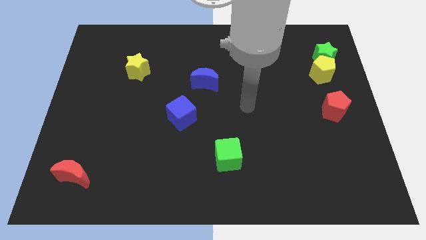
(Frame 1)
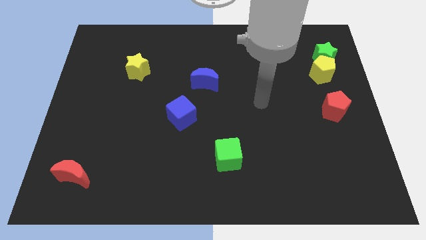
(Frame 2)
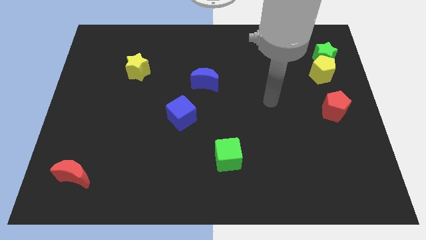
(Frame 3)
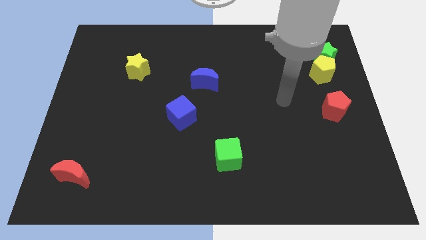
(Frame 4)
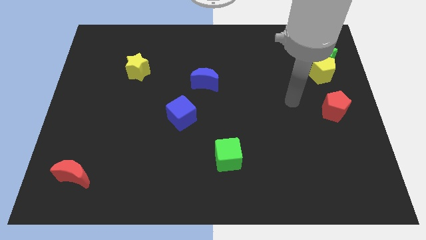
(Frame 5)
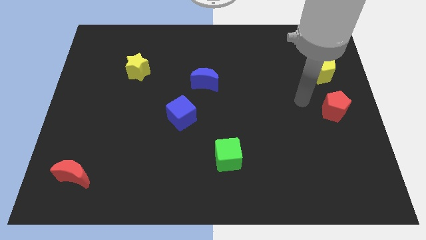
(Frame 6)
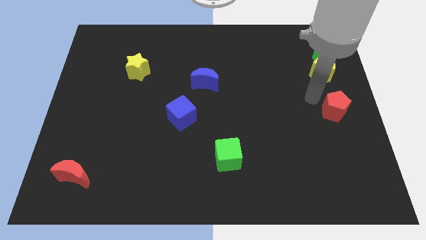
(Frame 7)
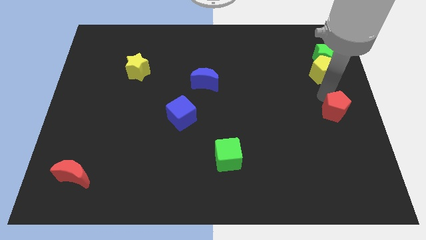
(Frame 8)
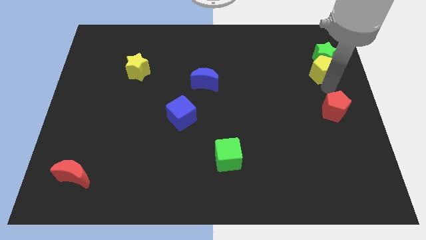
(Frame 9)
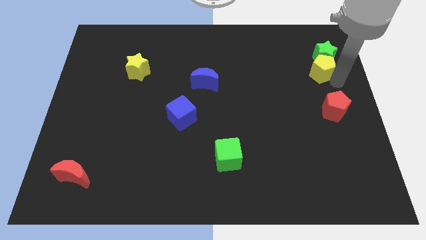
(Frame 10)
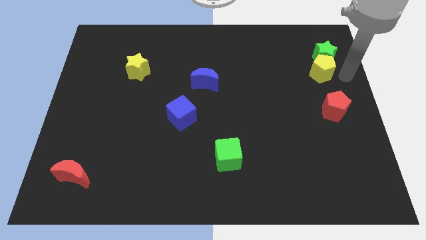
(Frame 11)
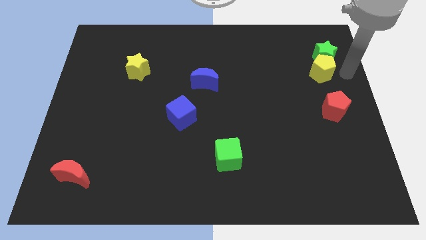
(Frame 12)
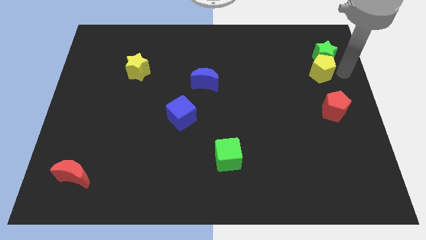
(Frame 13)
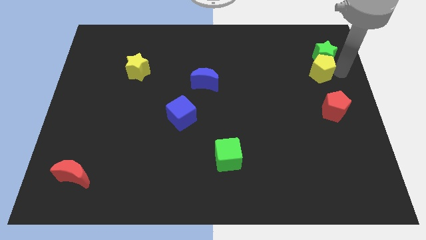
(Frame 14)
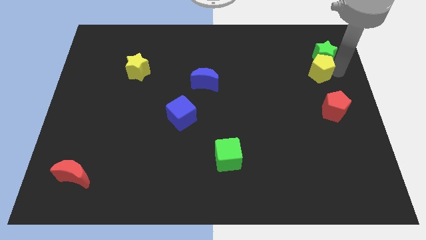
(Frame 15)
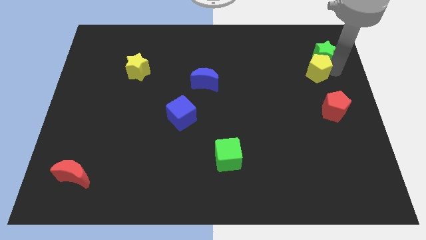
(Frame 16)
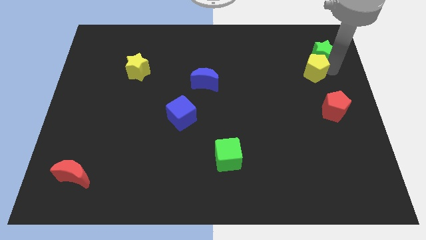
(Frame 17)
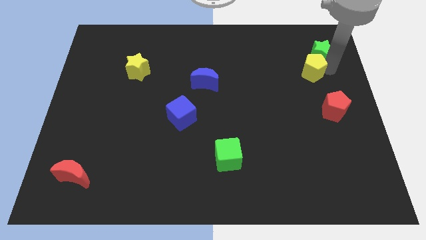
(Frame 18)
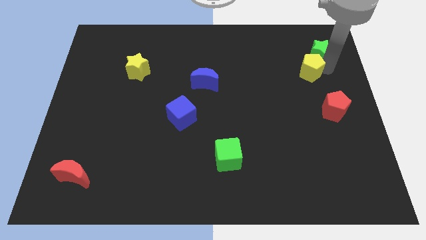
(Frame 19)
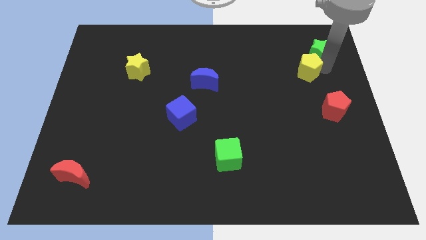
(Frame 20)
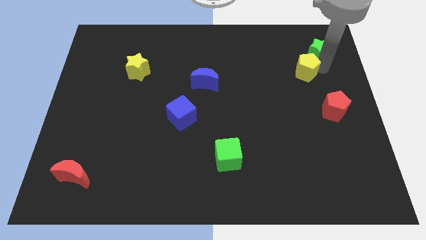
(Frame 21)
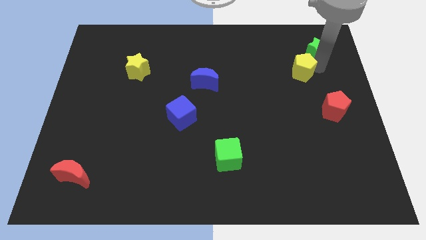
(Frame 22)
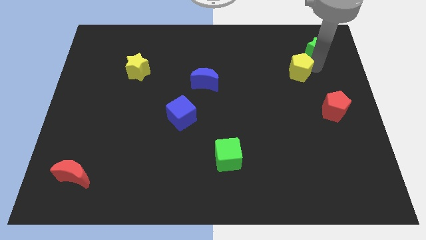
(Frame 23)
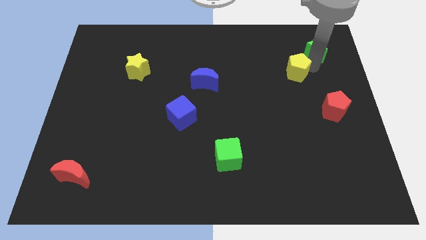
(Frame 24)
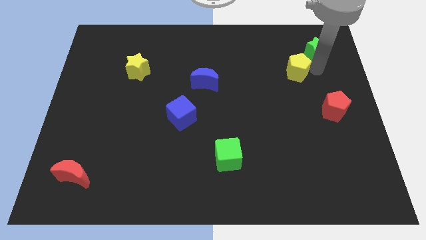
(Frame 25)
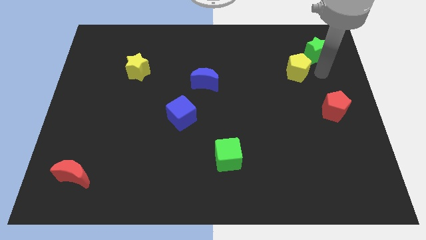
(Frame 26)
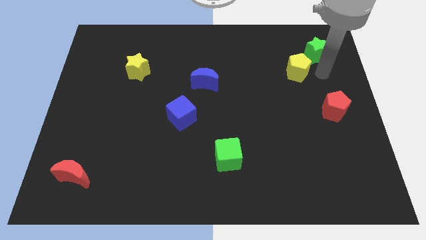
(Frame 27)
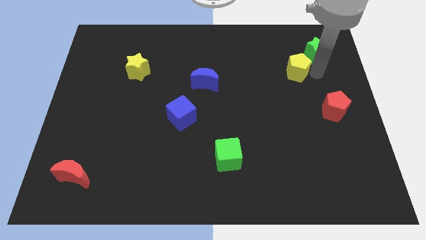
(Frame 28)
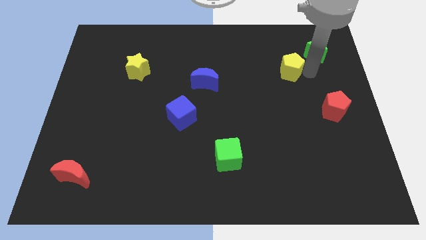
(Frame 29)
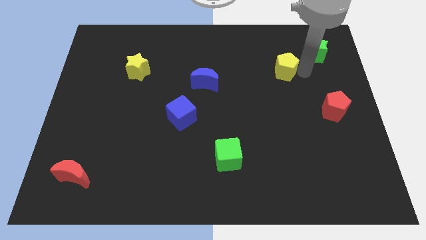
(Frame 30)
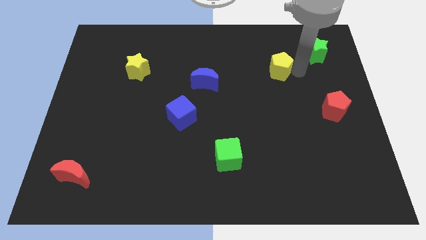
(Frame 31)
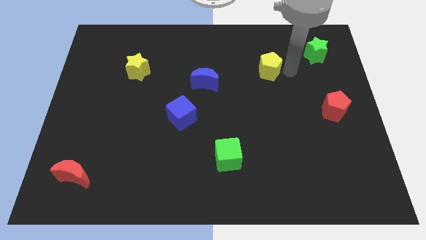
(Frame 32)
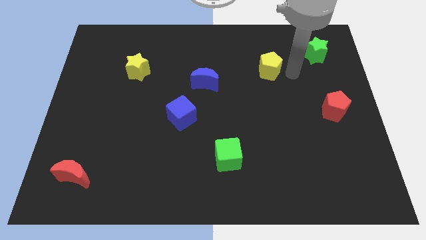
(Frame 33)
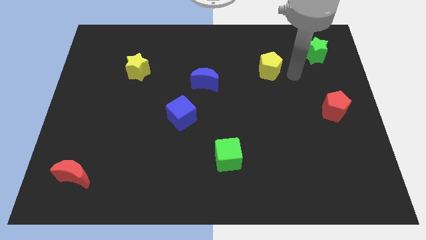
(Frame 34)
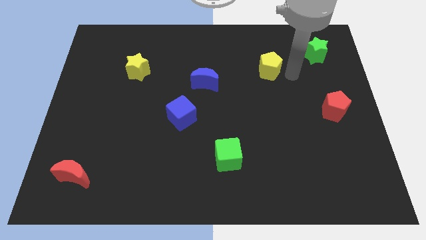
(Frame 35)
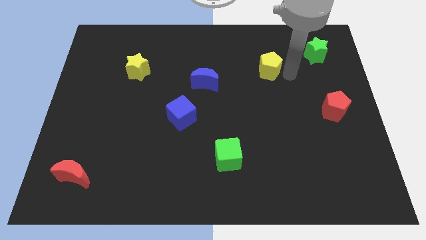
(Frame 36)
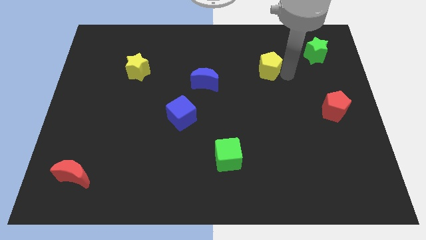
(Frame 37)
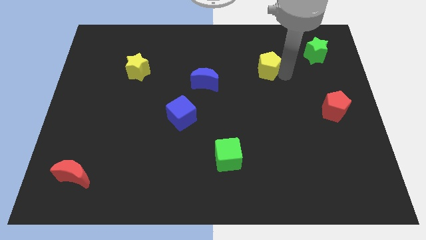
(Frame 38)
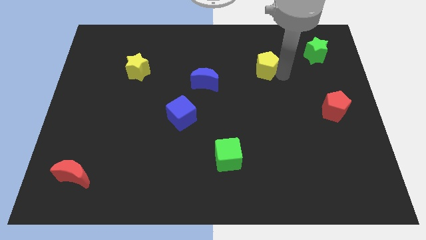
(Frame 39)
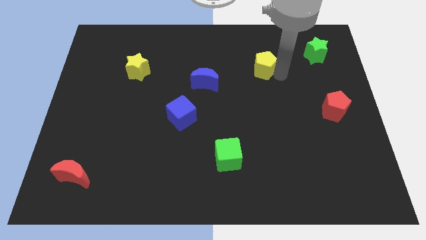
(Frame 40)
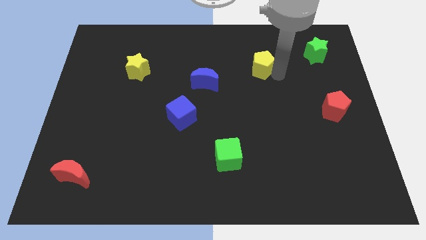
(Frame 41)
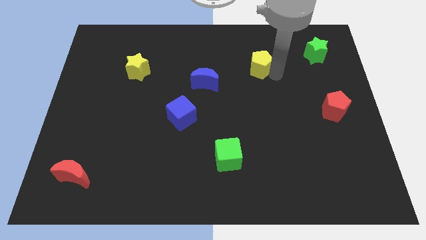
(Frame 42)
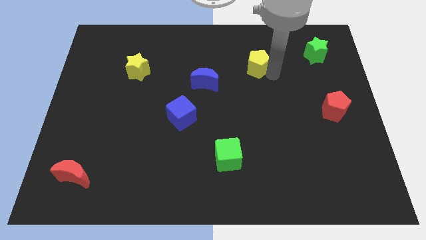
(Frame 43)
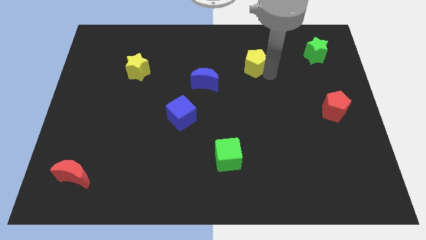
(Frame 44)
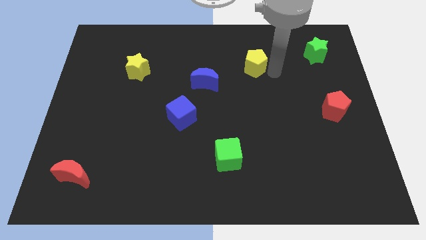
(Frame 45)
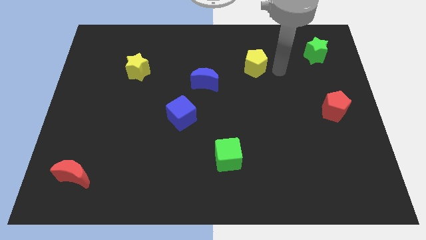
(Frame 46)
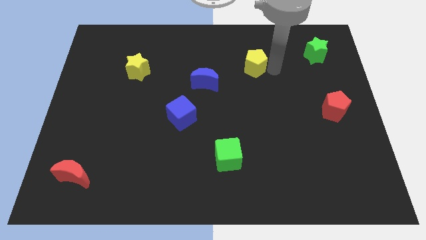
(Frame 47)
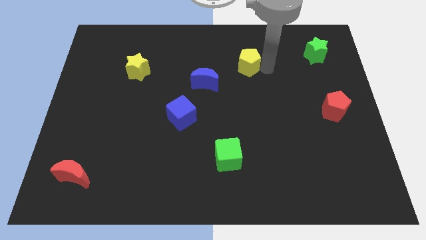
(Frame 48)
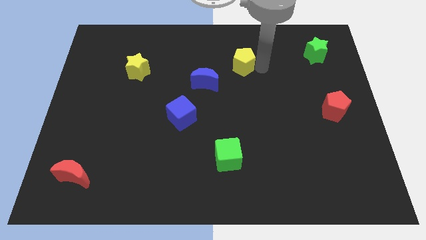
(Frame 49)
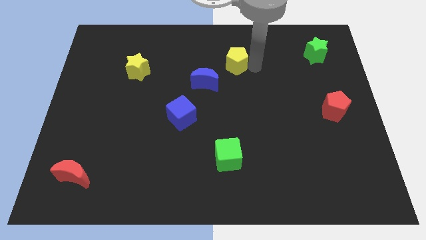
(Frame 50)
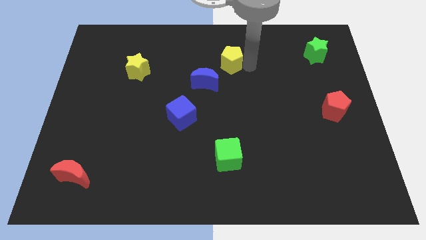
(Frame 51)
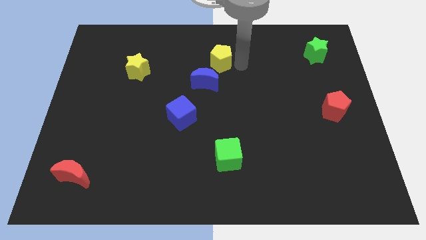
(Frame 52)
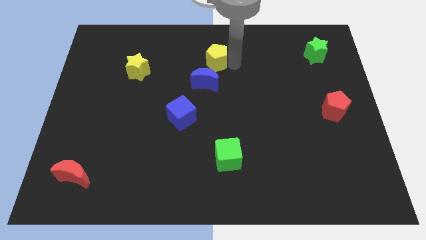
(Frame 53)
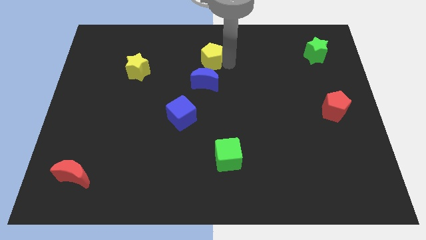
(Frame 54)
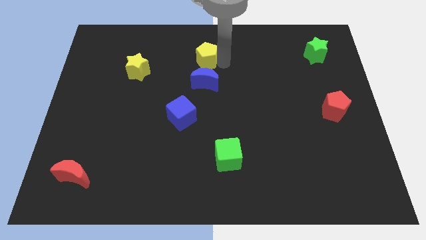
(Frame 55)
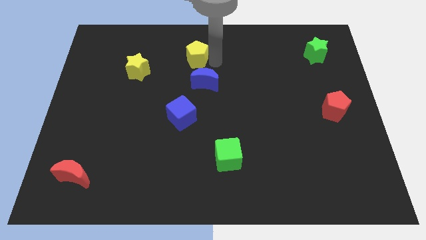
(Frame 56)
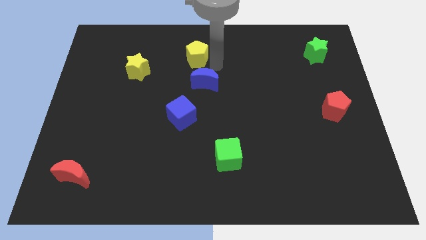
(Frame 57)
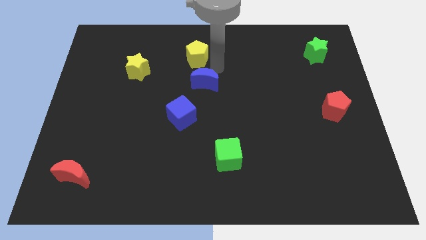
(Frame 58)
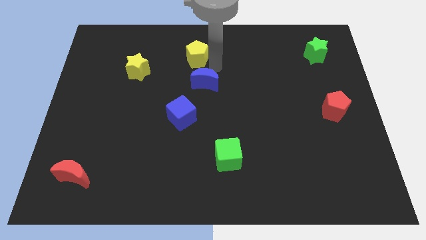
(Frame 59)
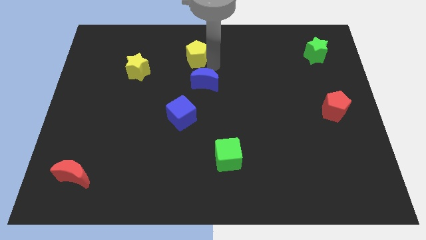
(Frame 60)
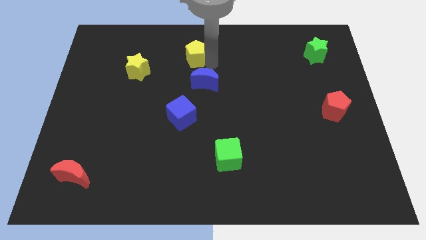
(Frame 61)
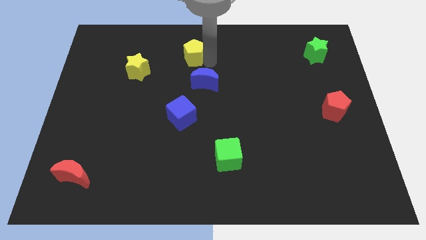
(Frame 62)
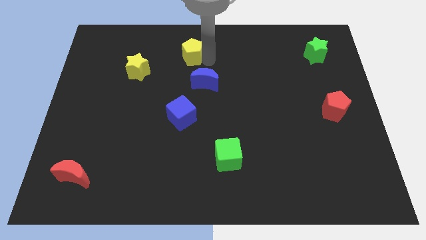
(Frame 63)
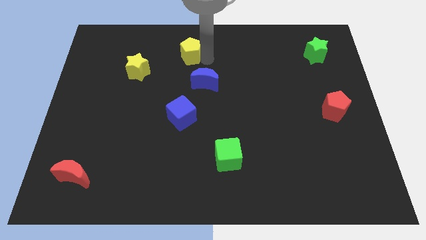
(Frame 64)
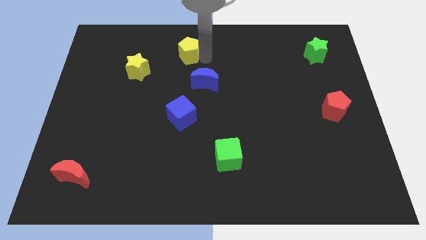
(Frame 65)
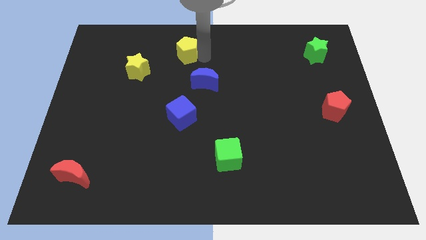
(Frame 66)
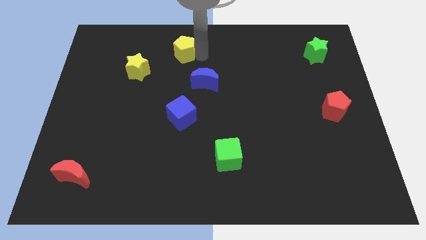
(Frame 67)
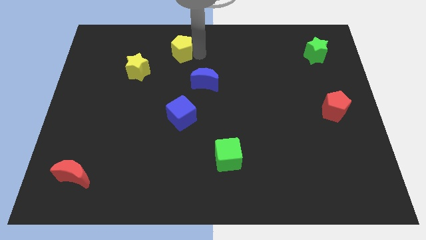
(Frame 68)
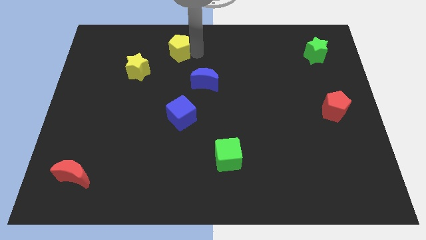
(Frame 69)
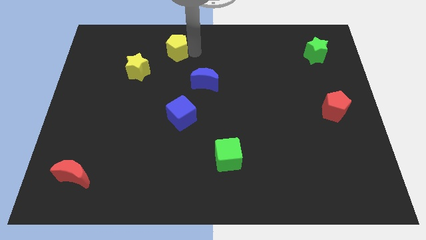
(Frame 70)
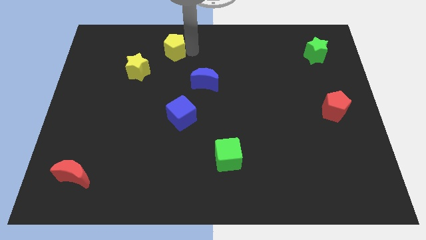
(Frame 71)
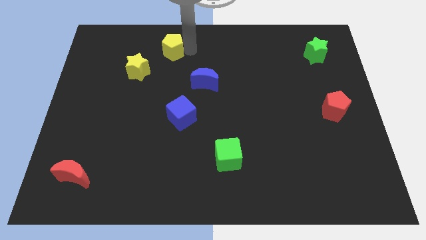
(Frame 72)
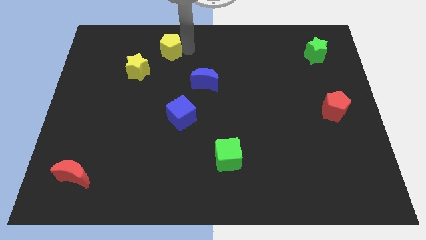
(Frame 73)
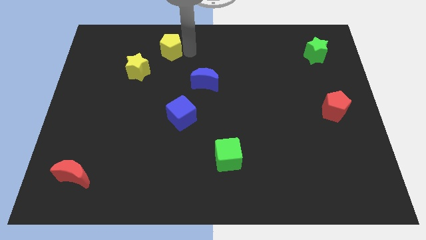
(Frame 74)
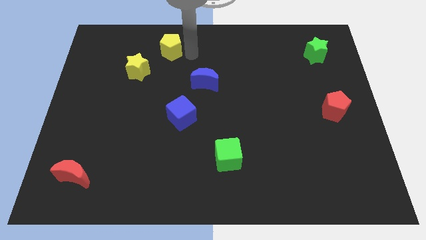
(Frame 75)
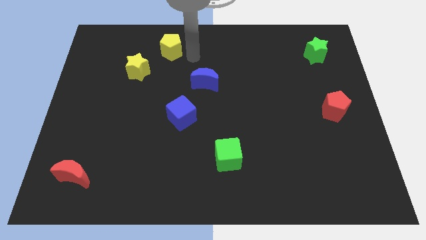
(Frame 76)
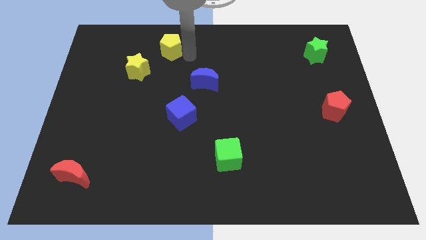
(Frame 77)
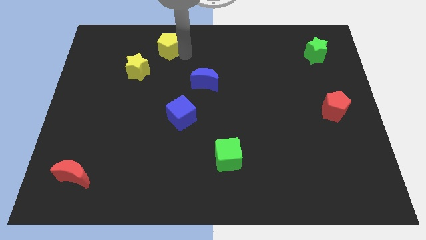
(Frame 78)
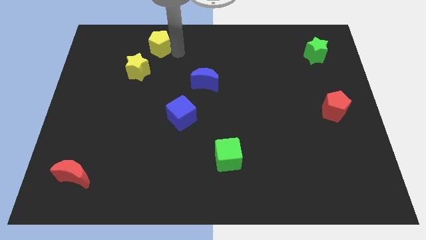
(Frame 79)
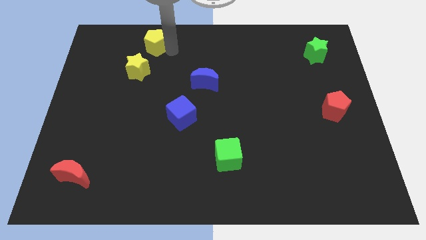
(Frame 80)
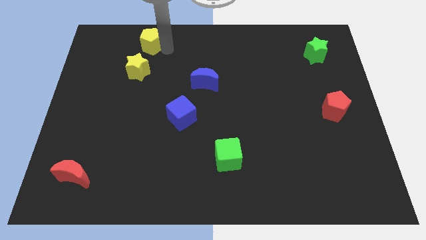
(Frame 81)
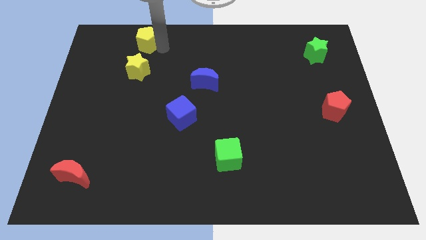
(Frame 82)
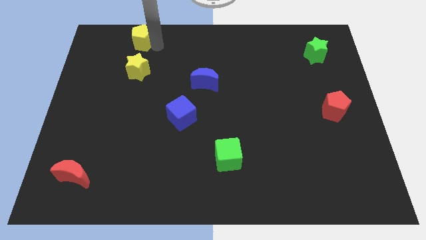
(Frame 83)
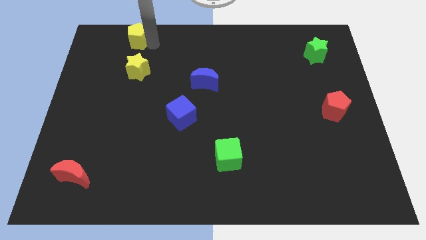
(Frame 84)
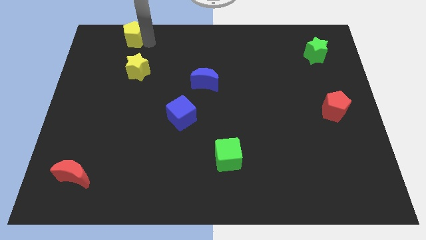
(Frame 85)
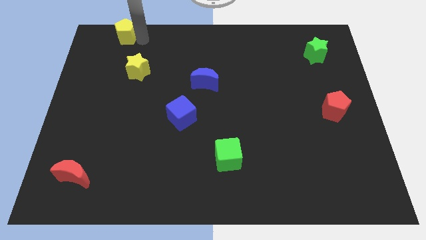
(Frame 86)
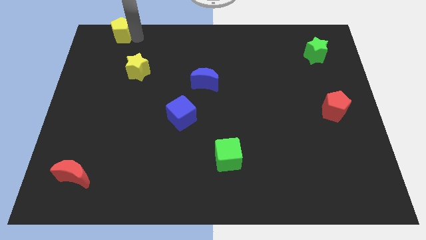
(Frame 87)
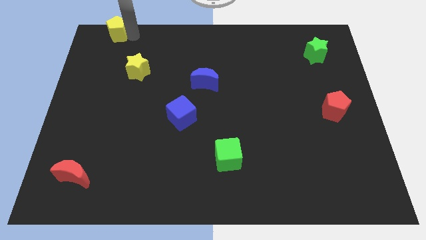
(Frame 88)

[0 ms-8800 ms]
slide the yellow pentagon to the top left corner
